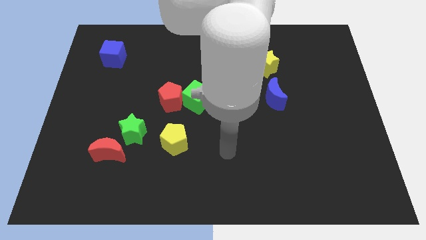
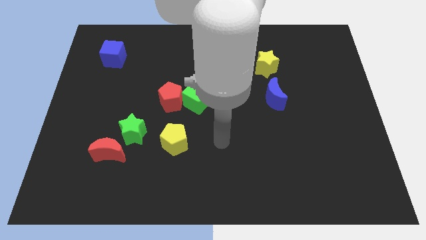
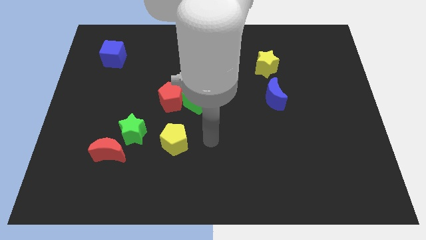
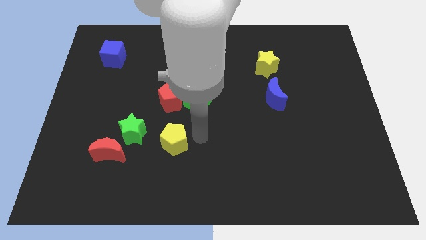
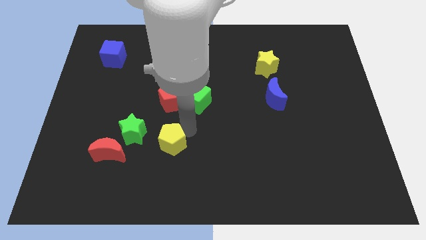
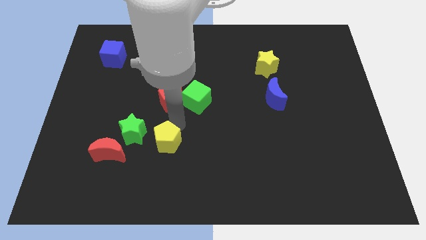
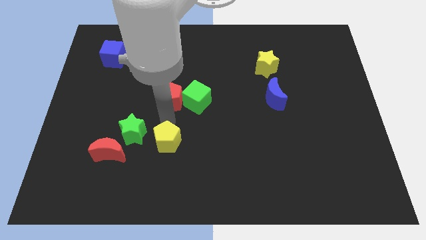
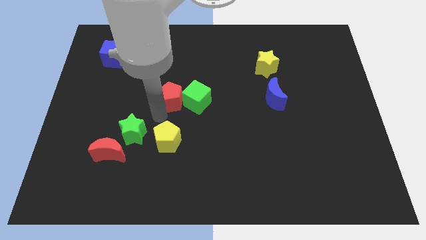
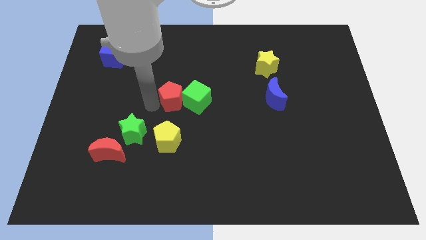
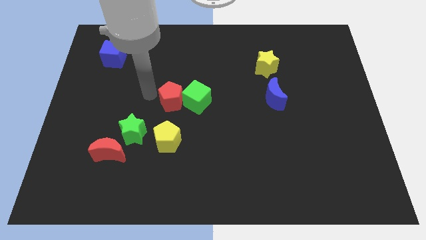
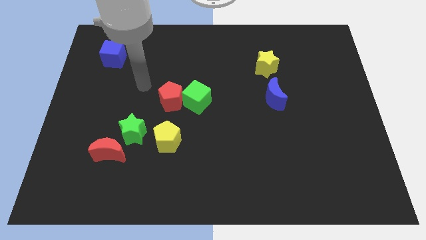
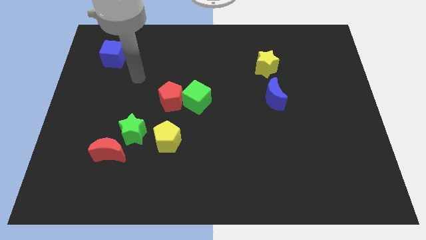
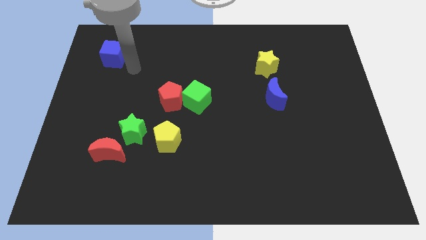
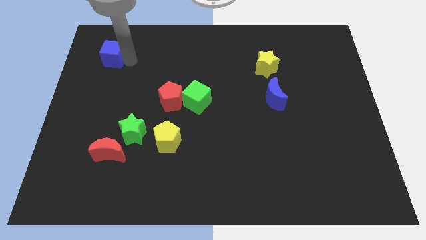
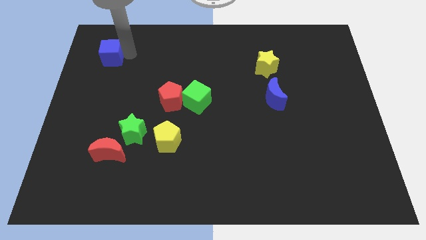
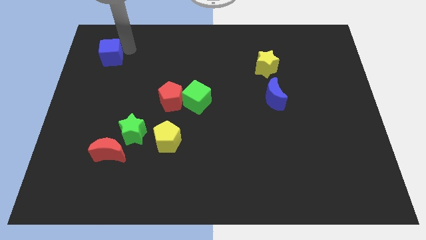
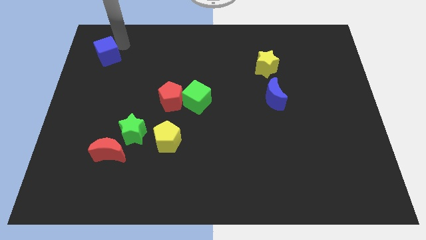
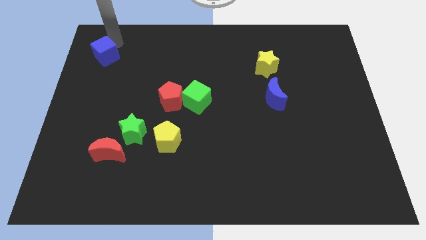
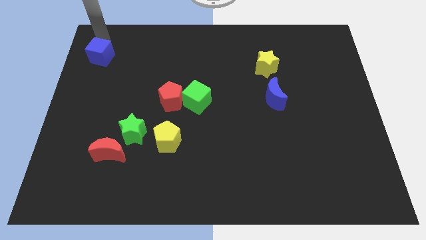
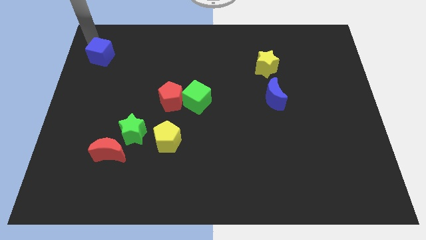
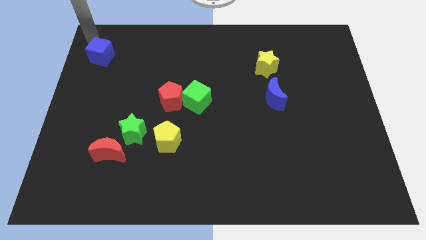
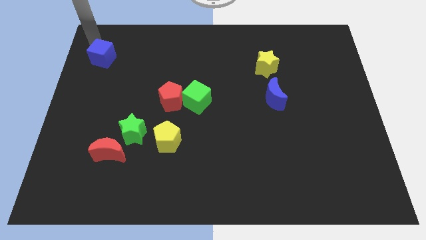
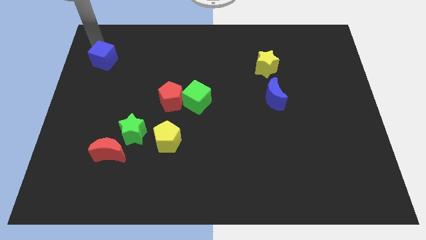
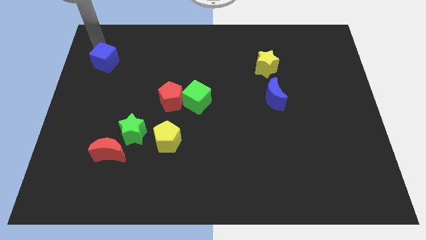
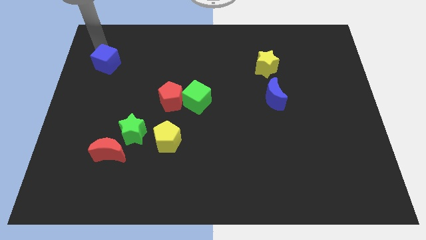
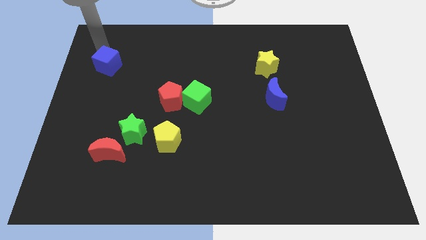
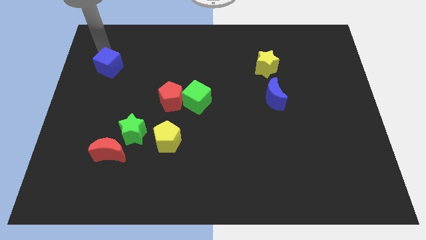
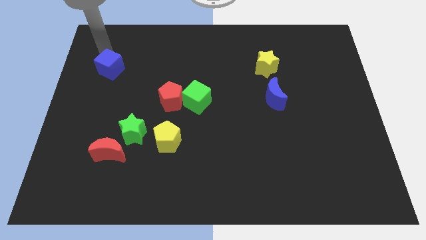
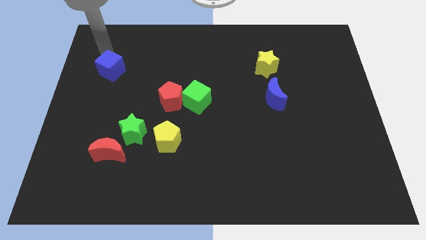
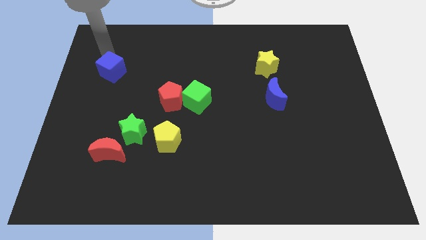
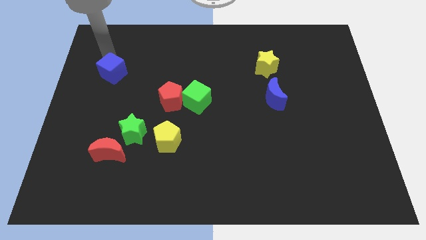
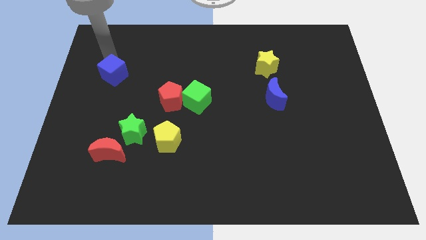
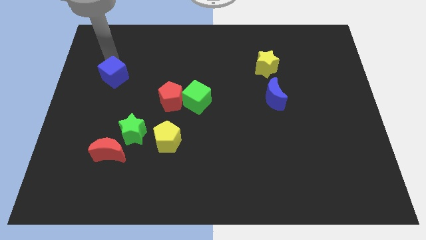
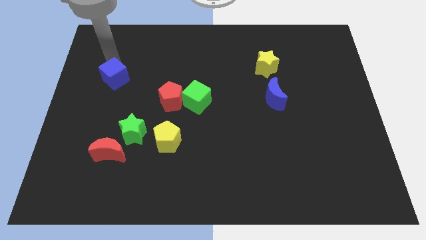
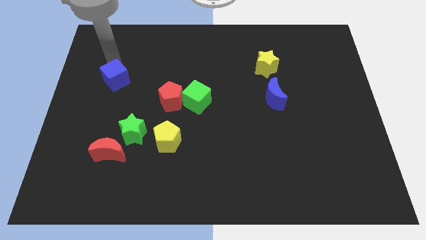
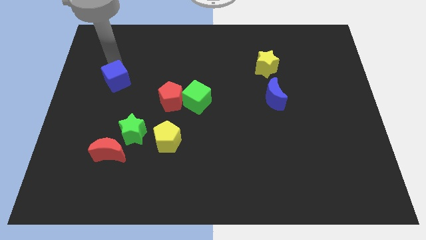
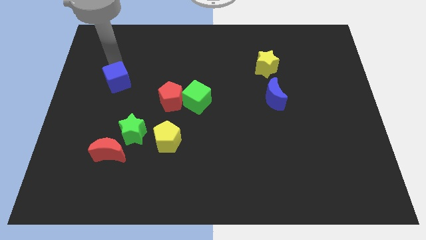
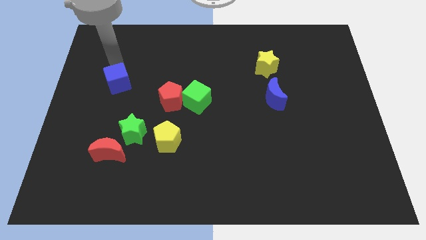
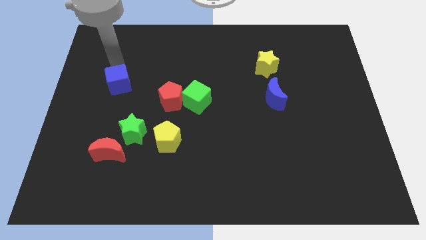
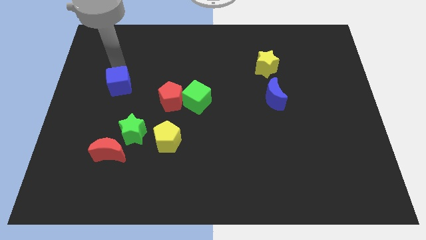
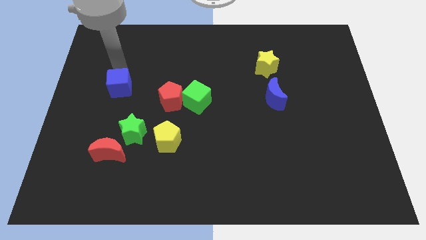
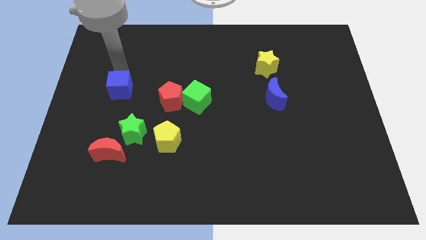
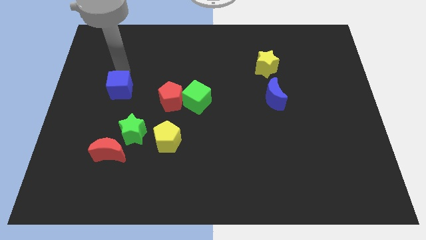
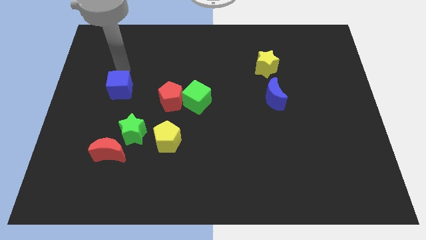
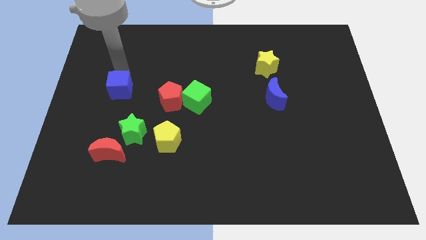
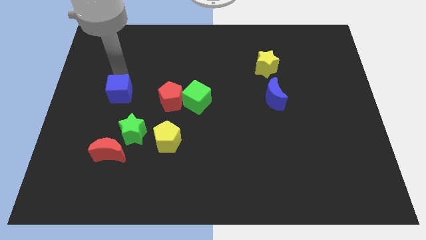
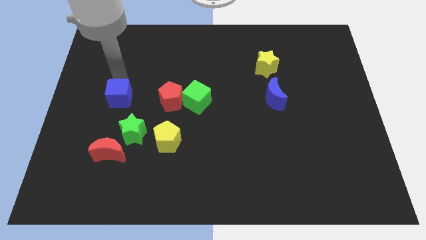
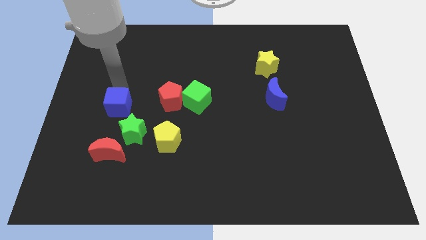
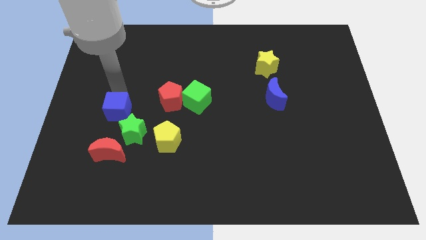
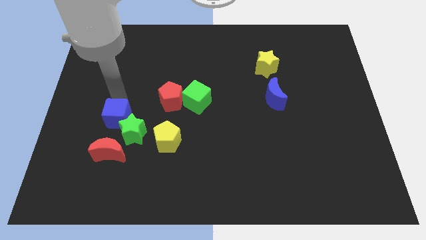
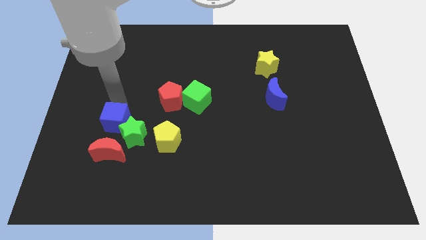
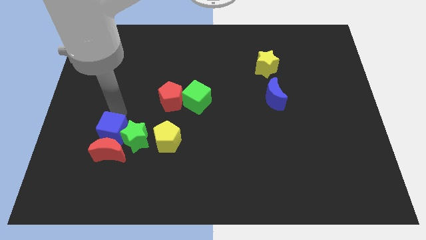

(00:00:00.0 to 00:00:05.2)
push the blue cube towards the red moon

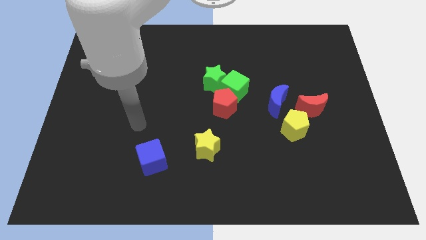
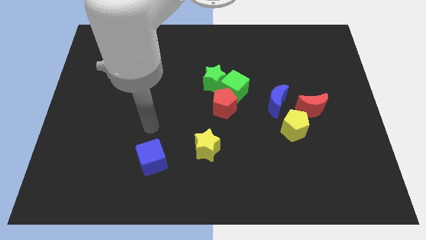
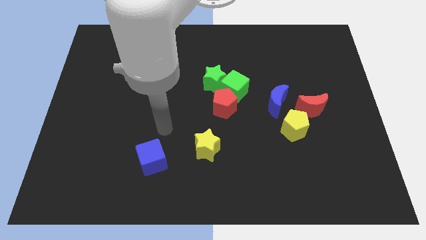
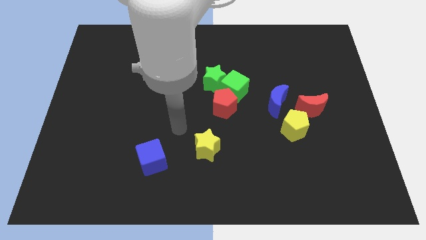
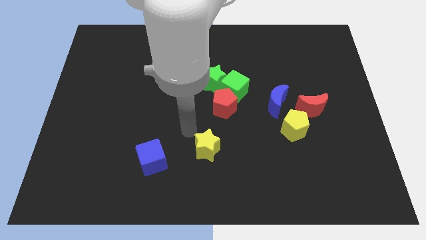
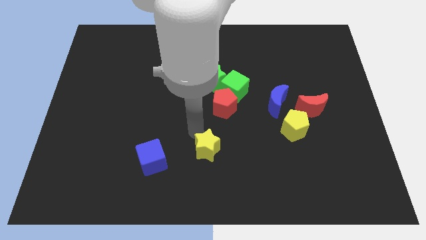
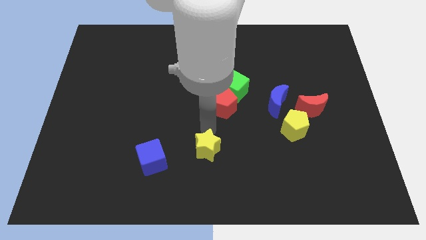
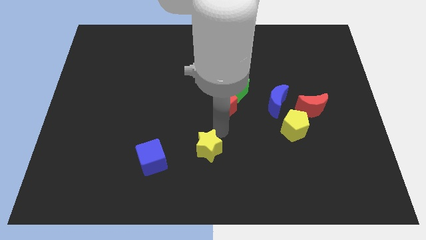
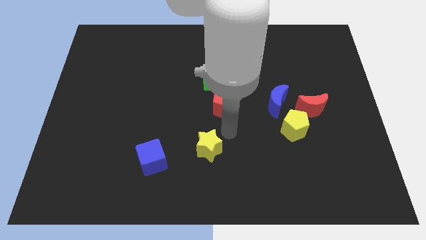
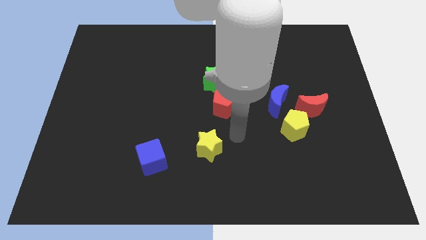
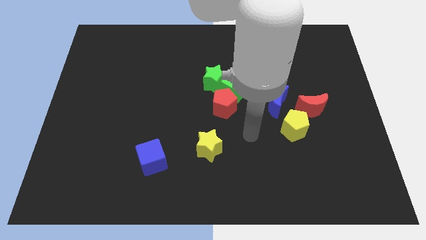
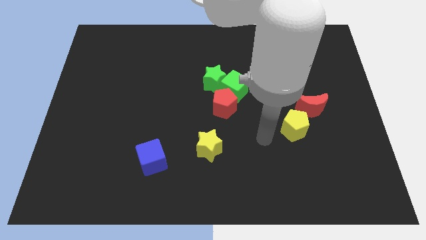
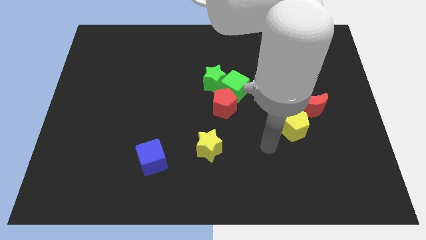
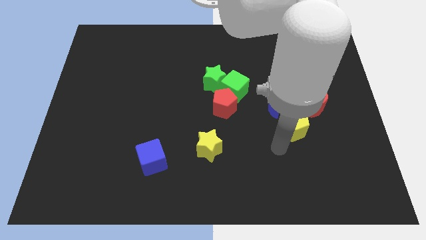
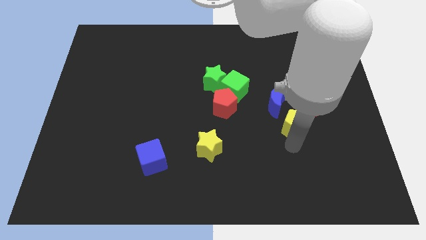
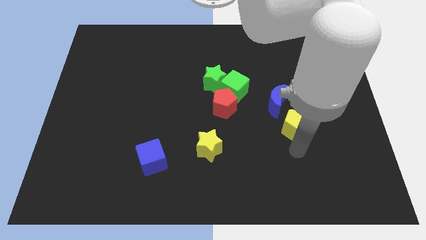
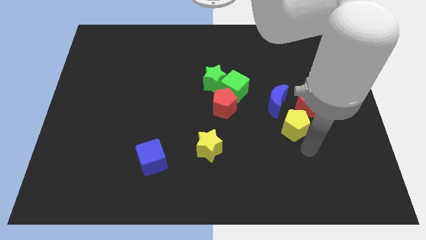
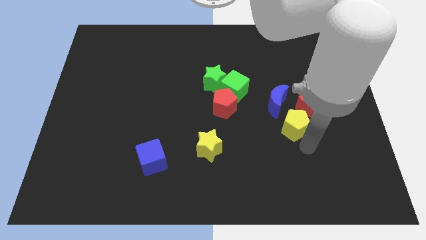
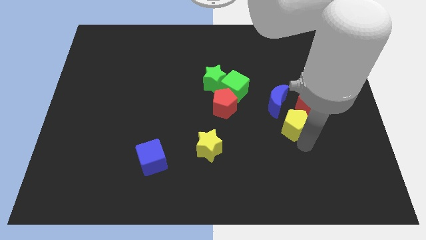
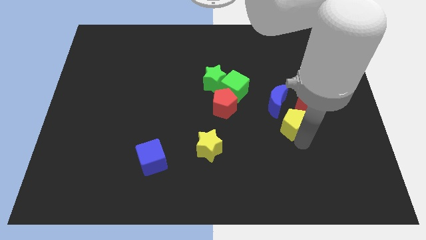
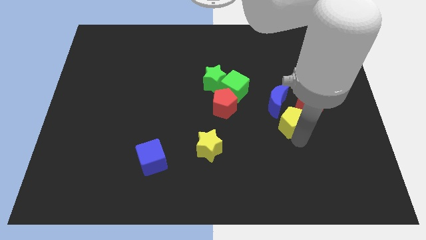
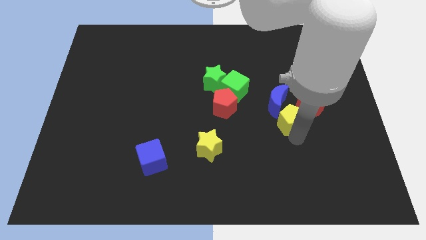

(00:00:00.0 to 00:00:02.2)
push the yellow pentagon close to the blue moon
